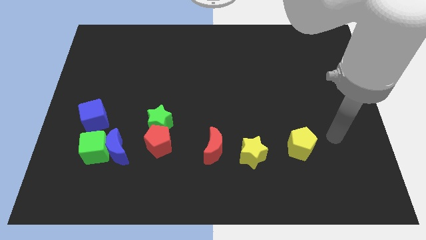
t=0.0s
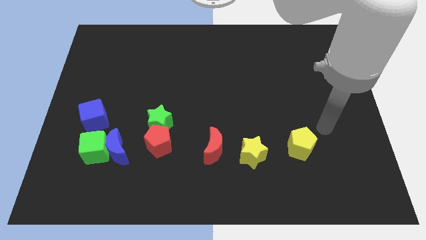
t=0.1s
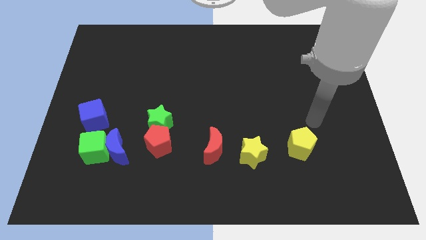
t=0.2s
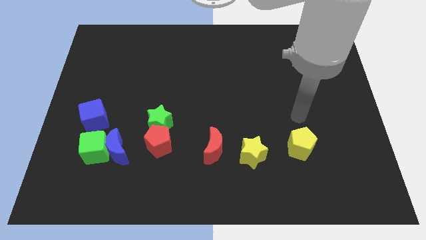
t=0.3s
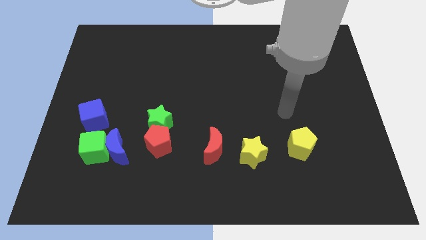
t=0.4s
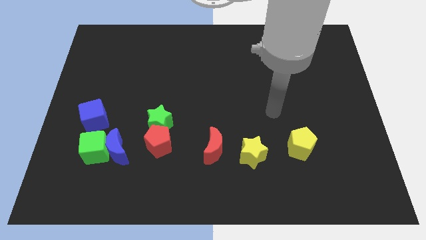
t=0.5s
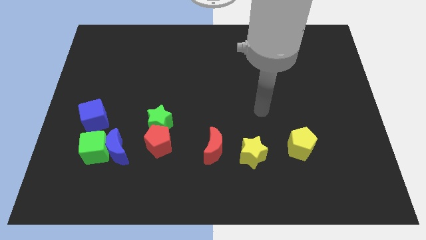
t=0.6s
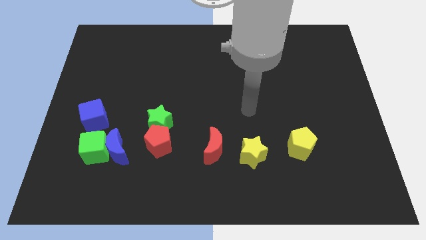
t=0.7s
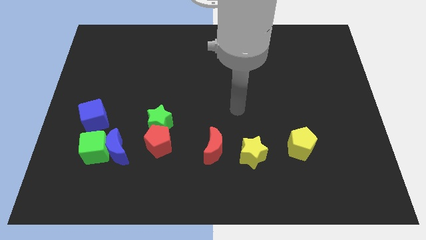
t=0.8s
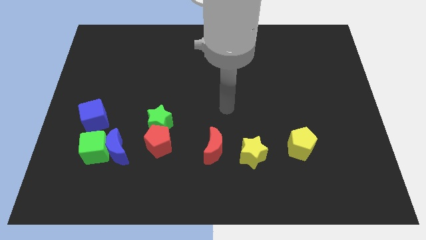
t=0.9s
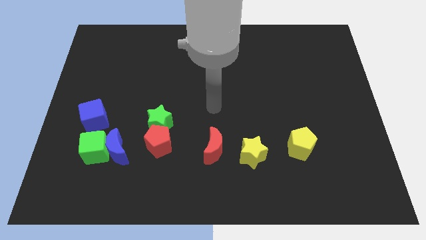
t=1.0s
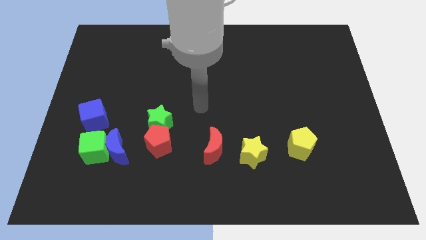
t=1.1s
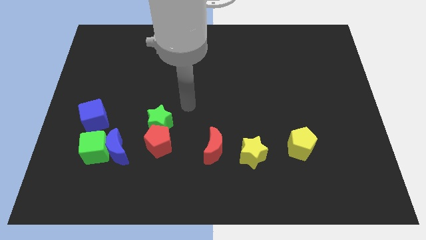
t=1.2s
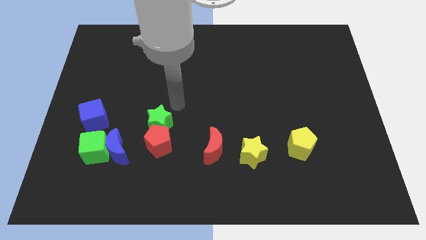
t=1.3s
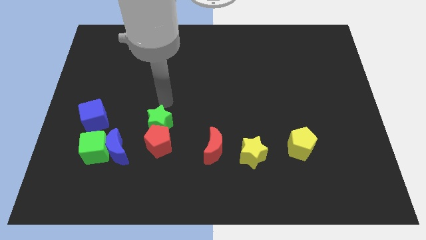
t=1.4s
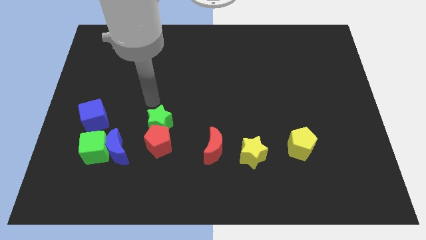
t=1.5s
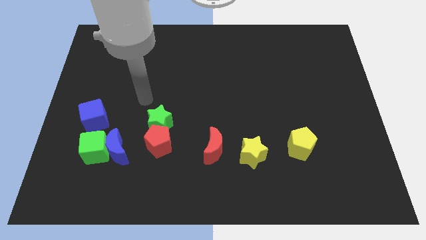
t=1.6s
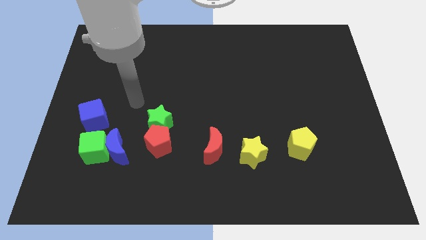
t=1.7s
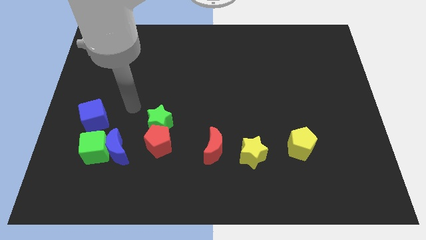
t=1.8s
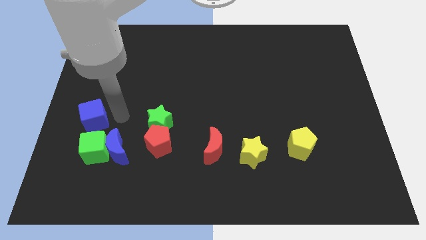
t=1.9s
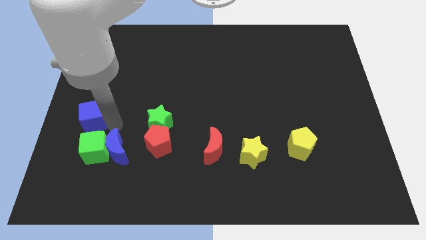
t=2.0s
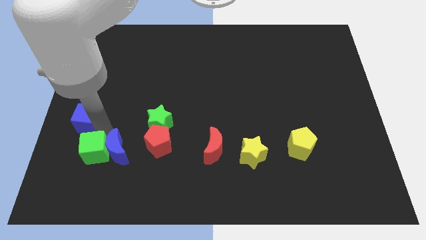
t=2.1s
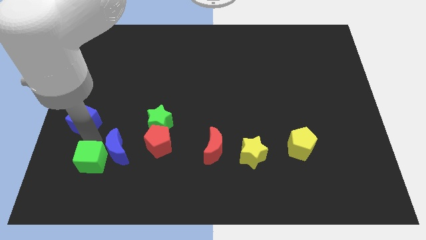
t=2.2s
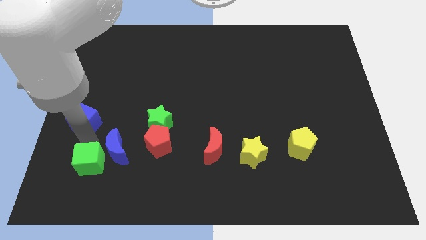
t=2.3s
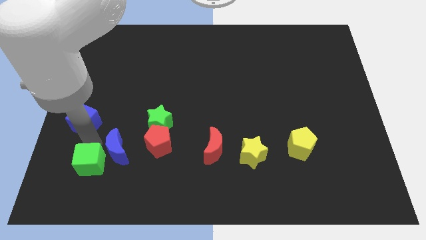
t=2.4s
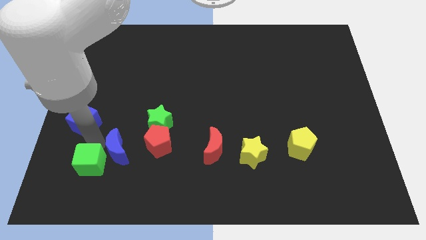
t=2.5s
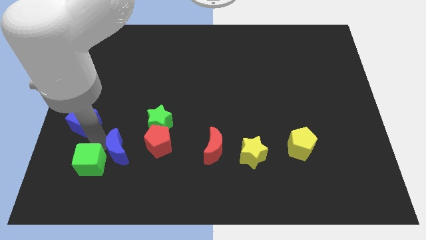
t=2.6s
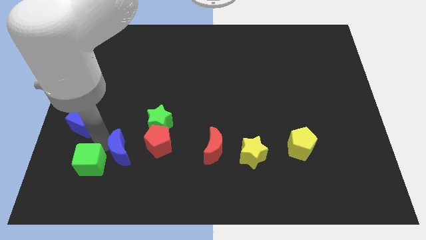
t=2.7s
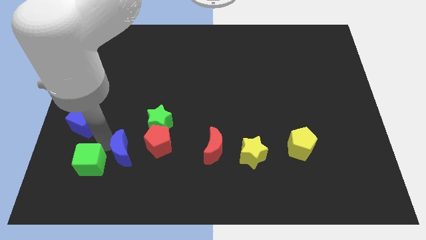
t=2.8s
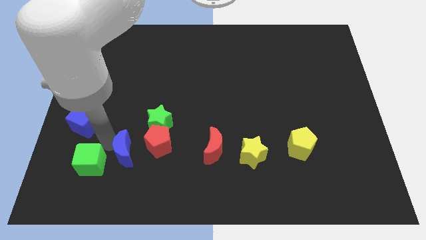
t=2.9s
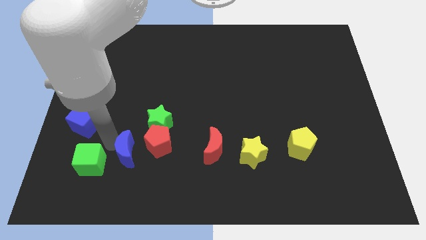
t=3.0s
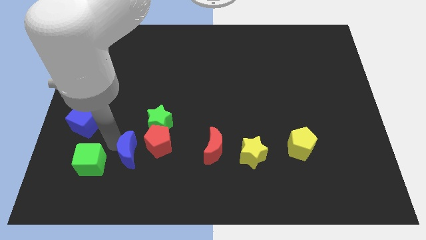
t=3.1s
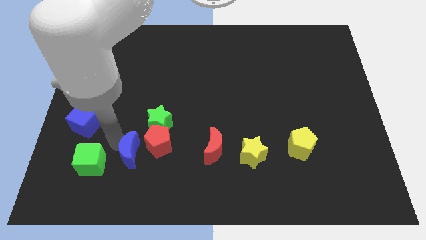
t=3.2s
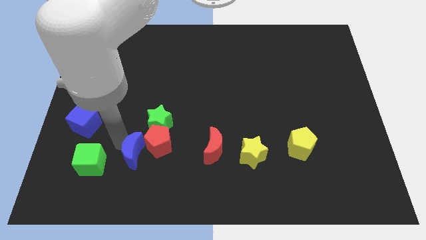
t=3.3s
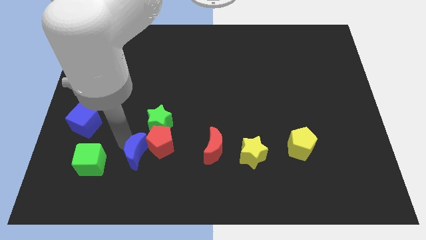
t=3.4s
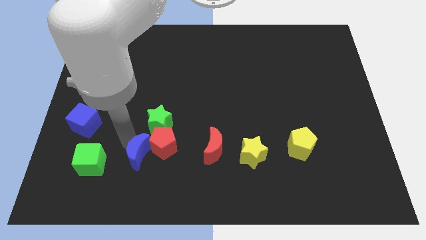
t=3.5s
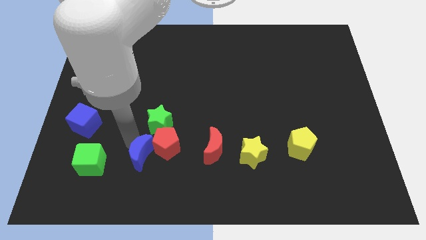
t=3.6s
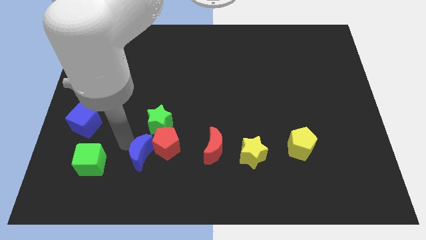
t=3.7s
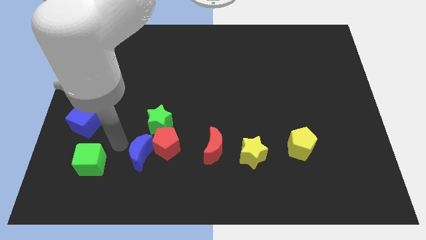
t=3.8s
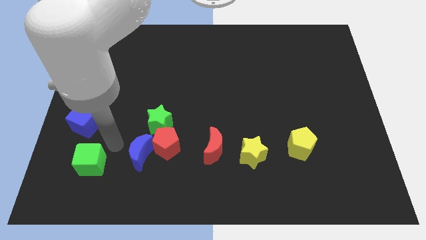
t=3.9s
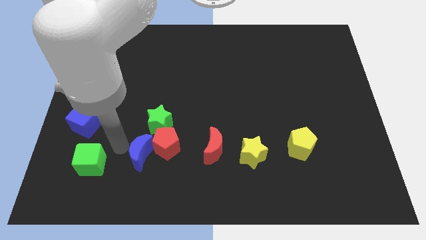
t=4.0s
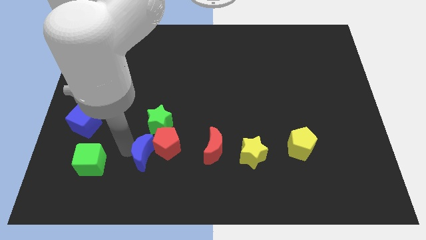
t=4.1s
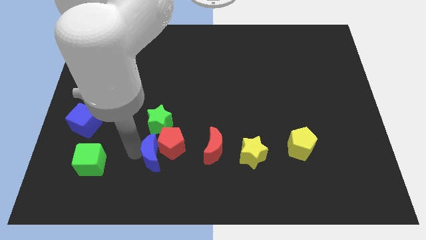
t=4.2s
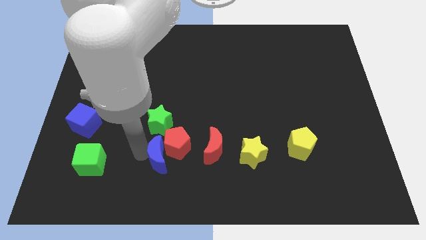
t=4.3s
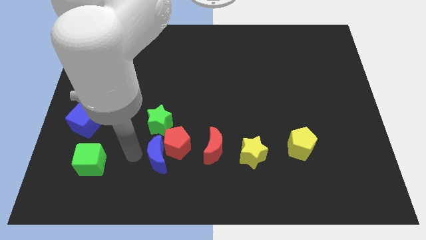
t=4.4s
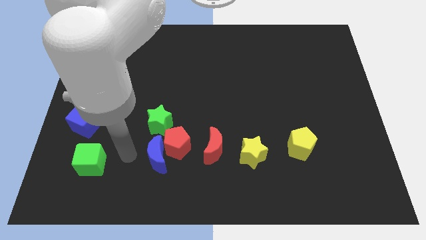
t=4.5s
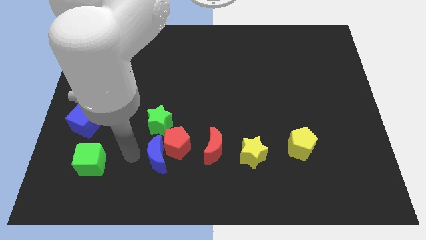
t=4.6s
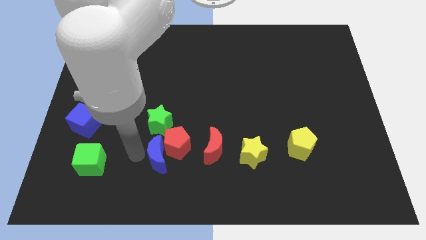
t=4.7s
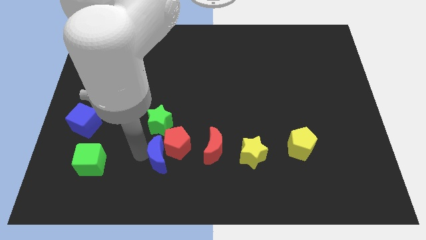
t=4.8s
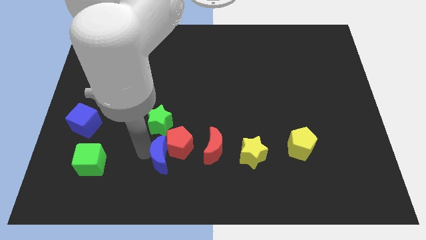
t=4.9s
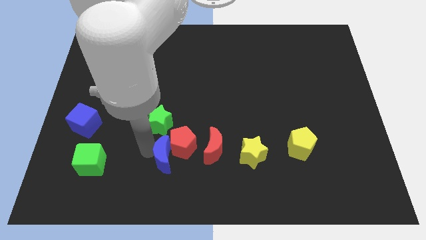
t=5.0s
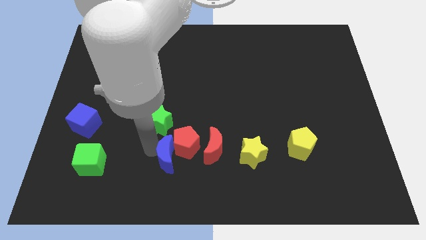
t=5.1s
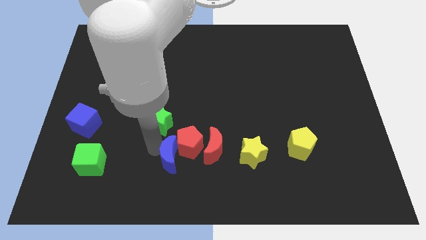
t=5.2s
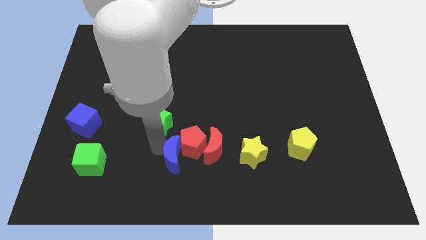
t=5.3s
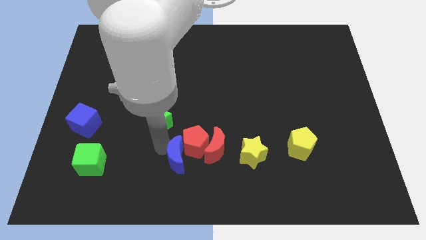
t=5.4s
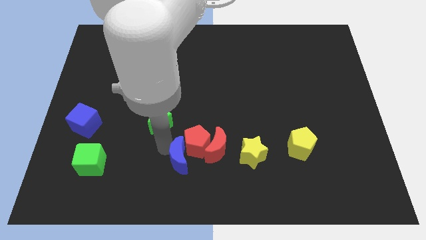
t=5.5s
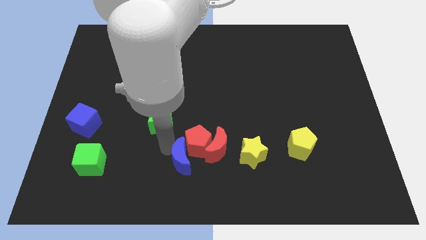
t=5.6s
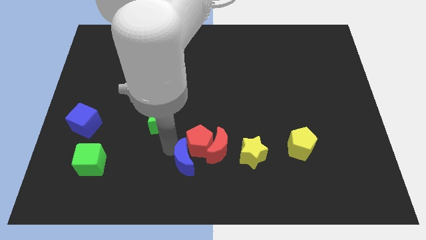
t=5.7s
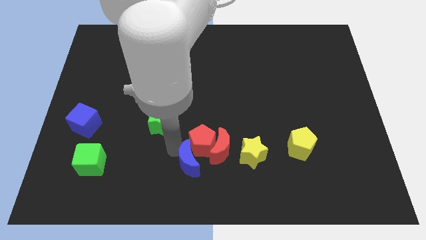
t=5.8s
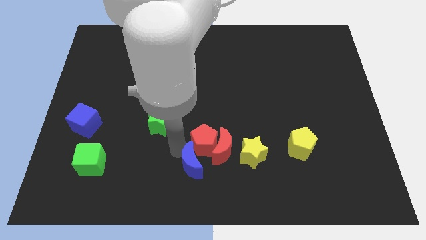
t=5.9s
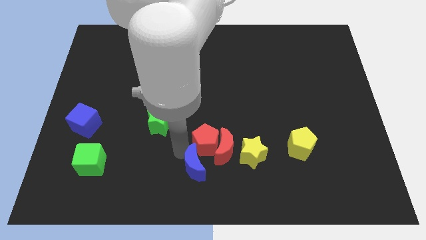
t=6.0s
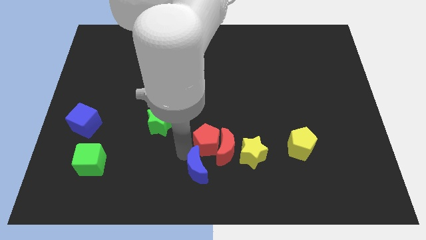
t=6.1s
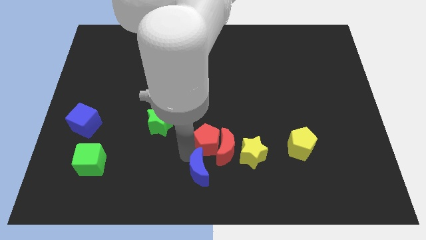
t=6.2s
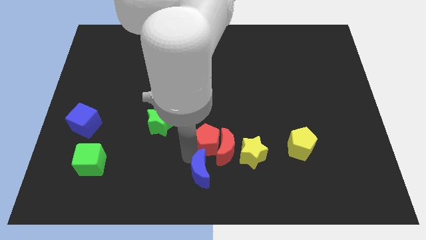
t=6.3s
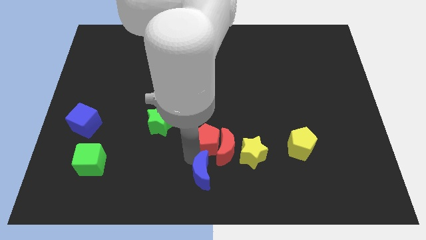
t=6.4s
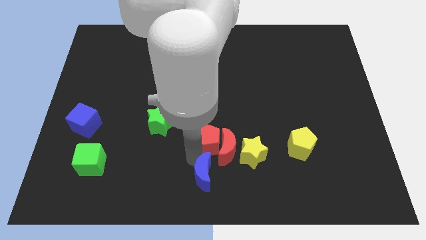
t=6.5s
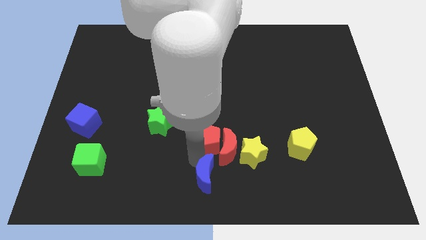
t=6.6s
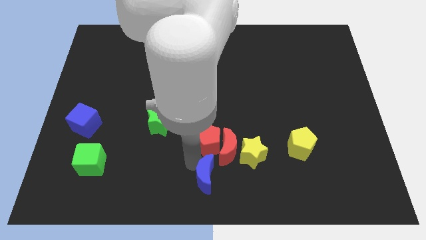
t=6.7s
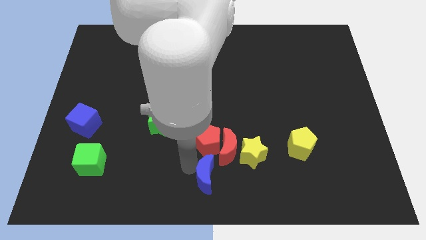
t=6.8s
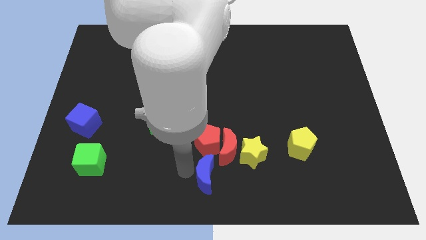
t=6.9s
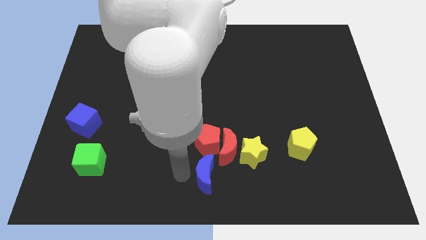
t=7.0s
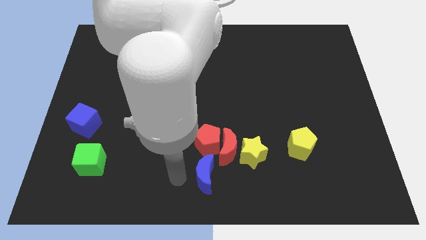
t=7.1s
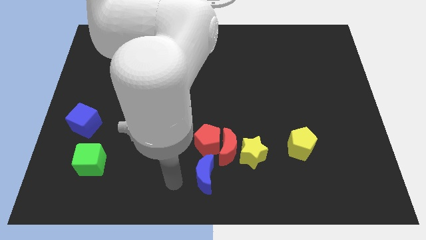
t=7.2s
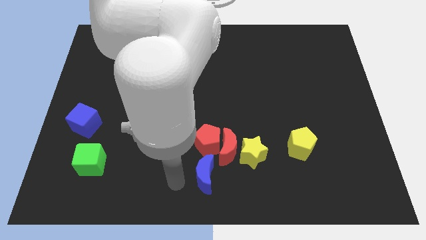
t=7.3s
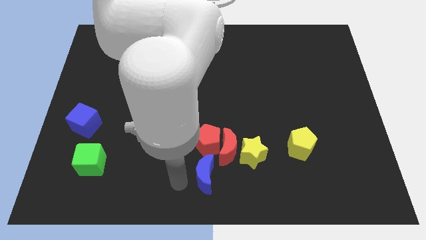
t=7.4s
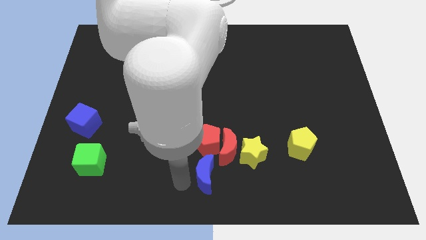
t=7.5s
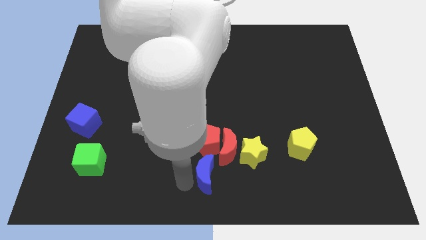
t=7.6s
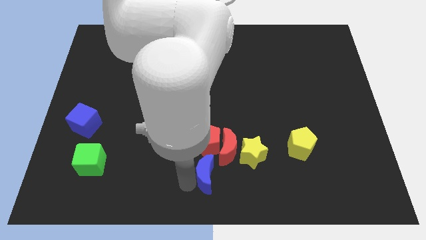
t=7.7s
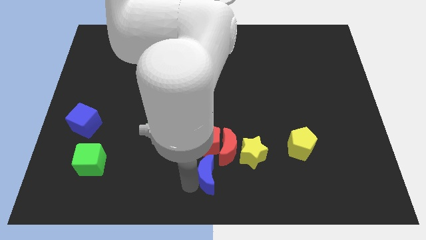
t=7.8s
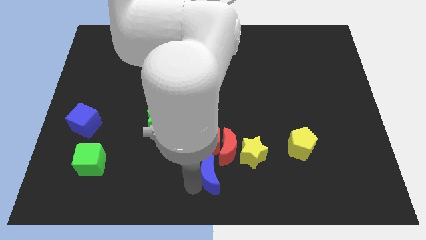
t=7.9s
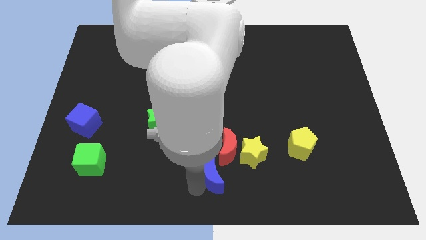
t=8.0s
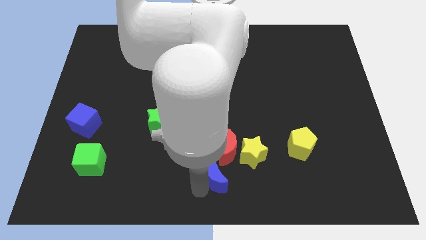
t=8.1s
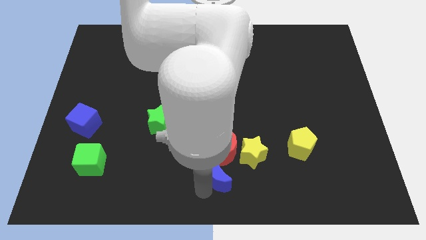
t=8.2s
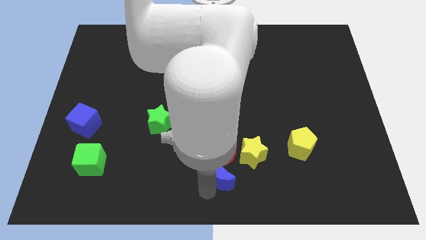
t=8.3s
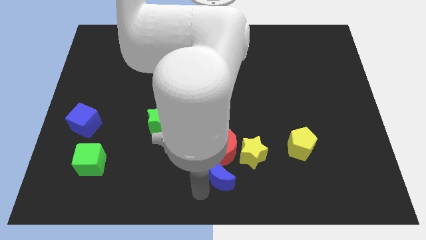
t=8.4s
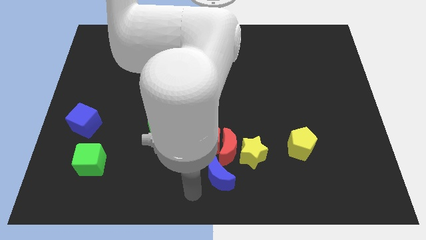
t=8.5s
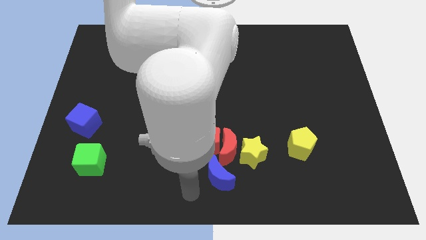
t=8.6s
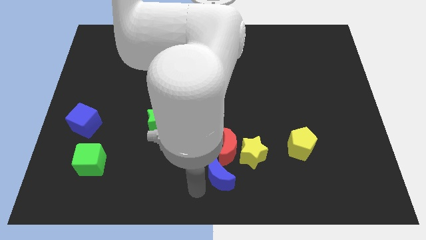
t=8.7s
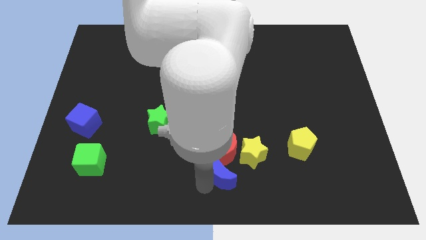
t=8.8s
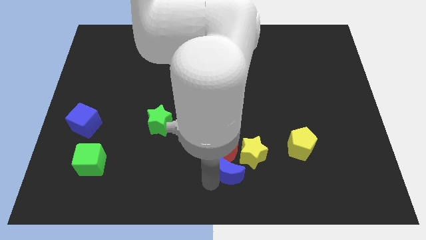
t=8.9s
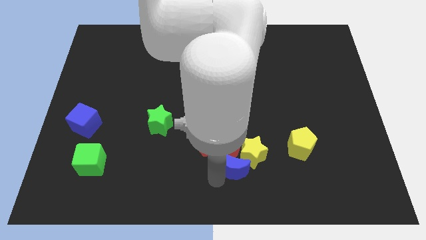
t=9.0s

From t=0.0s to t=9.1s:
move the blue moon close to the yellow star
